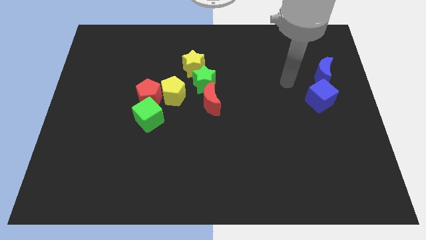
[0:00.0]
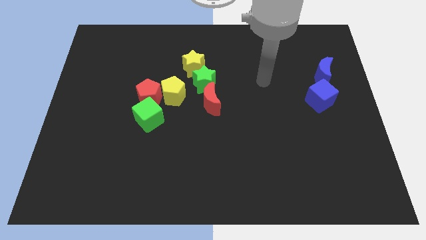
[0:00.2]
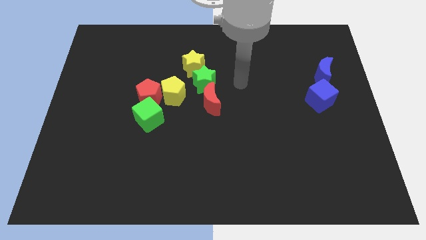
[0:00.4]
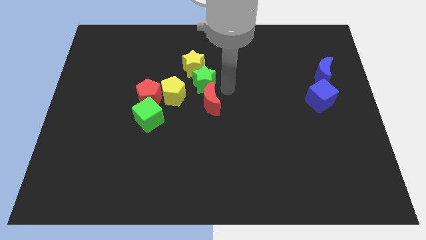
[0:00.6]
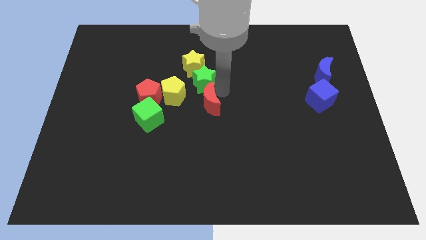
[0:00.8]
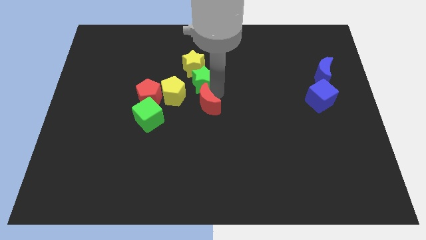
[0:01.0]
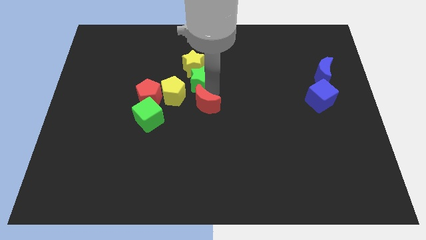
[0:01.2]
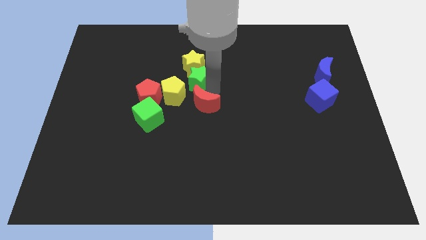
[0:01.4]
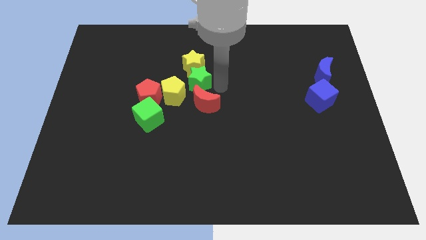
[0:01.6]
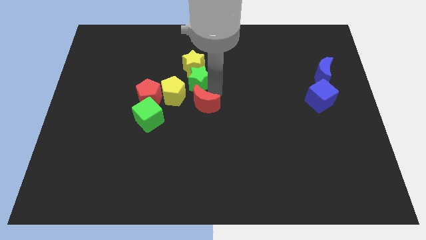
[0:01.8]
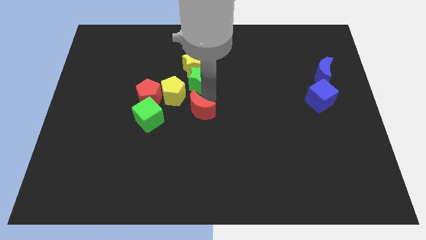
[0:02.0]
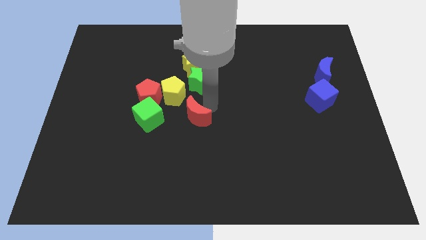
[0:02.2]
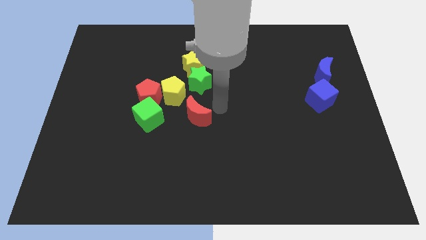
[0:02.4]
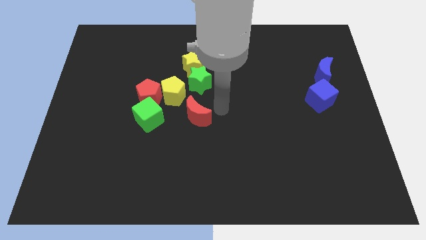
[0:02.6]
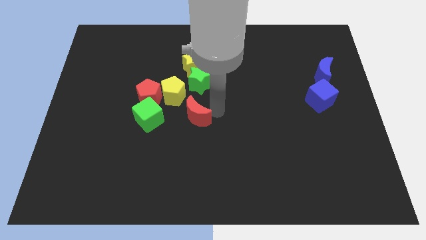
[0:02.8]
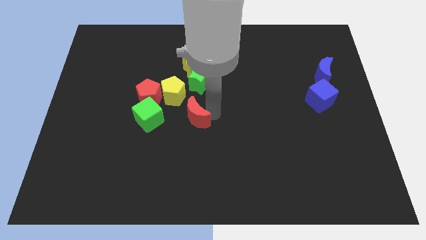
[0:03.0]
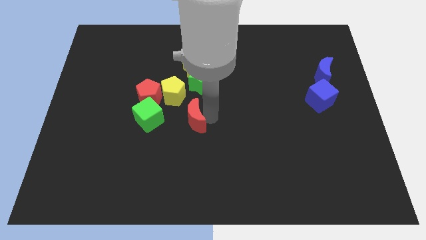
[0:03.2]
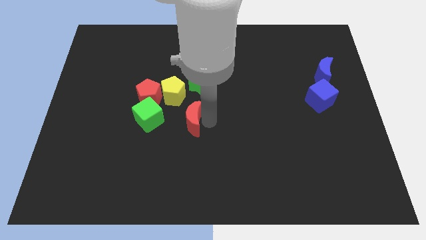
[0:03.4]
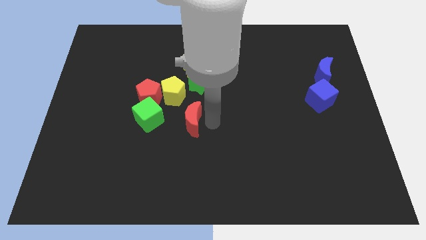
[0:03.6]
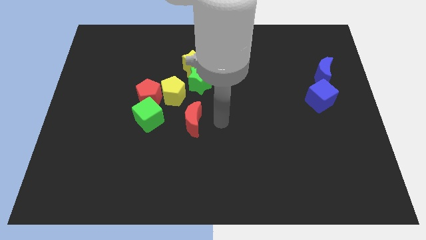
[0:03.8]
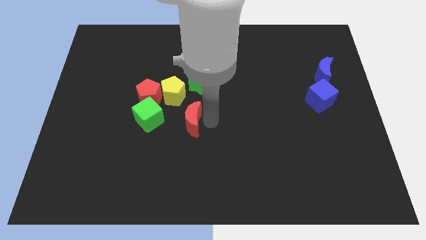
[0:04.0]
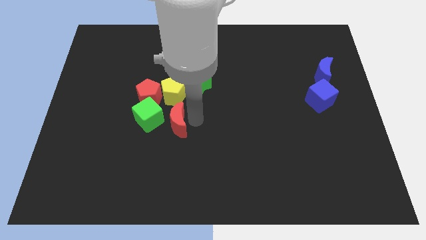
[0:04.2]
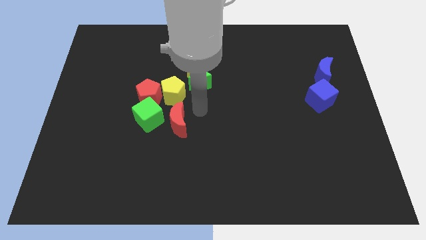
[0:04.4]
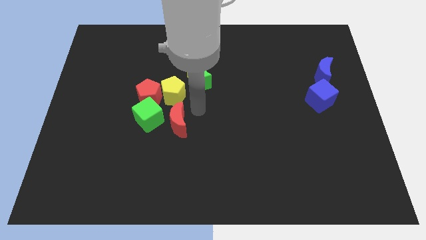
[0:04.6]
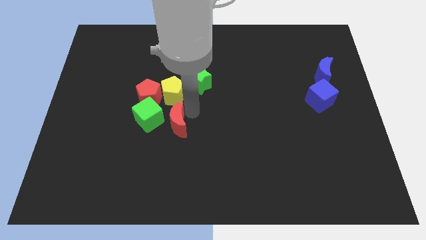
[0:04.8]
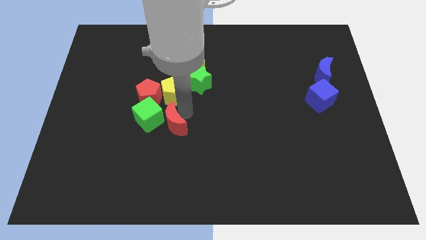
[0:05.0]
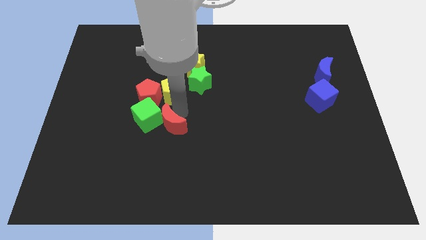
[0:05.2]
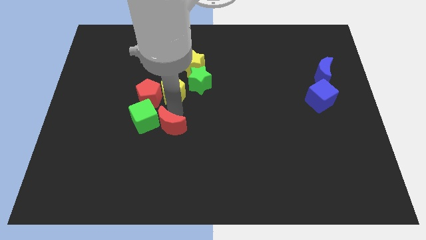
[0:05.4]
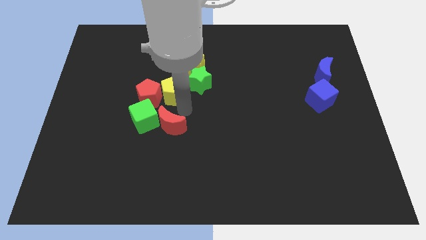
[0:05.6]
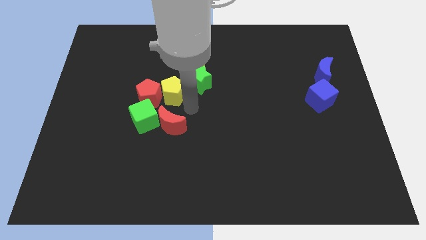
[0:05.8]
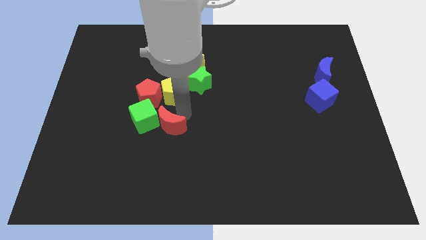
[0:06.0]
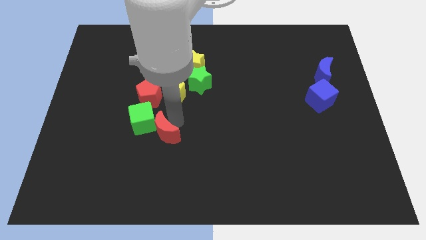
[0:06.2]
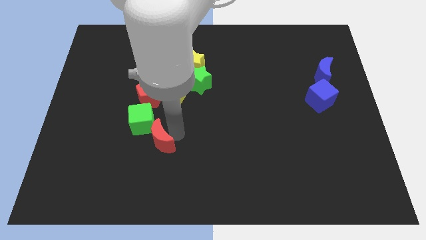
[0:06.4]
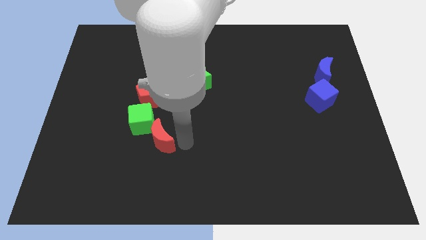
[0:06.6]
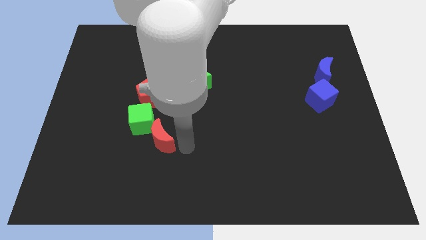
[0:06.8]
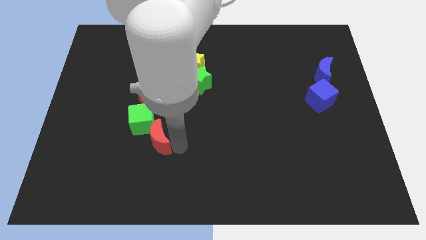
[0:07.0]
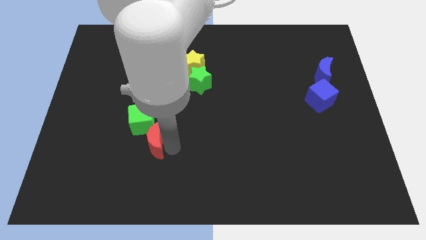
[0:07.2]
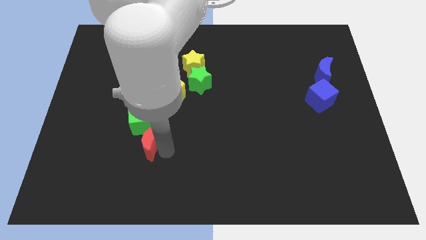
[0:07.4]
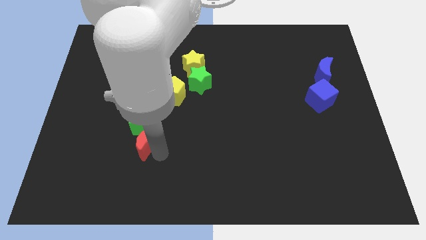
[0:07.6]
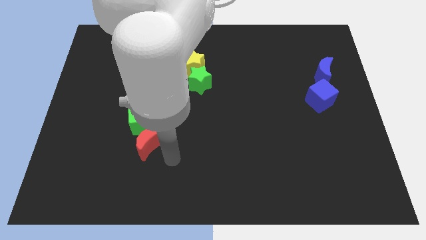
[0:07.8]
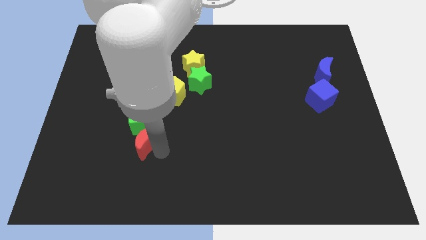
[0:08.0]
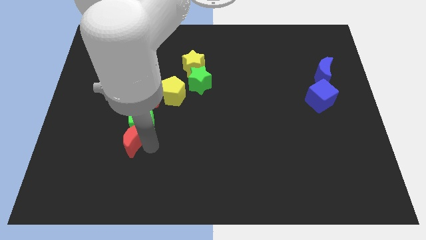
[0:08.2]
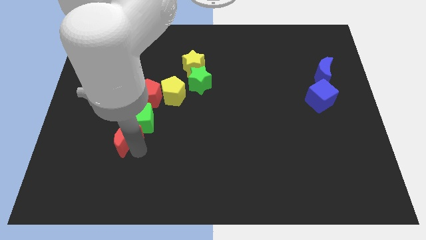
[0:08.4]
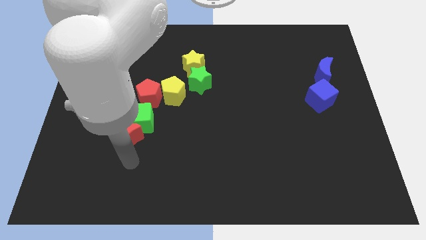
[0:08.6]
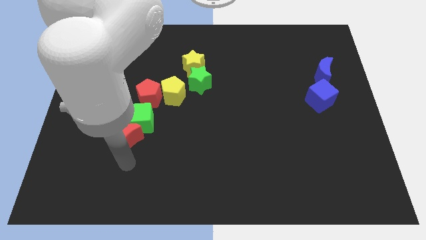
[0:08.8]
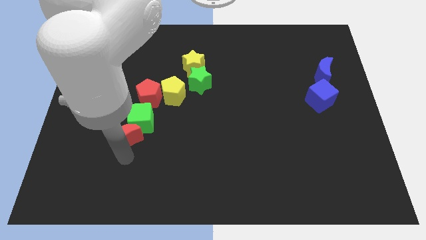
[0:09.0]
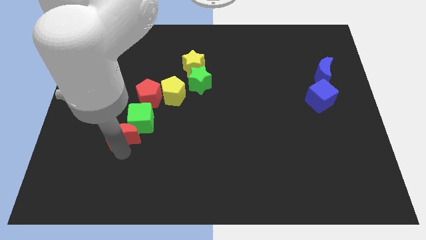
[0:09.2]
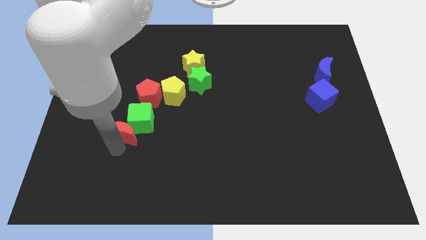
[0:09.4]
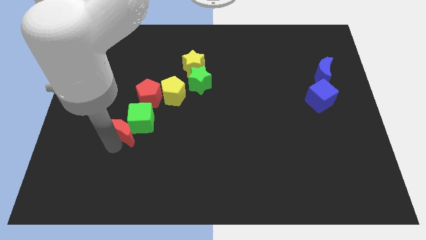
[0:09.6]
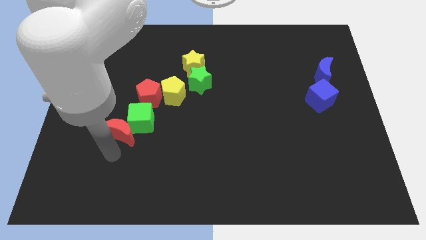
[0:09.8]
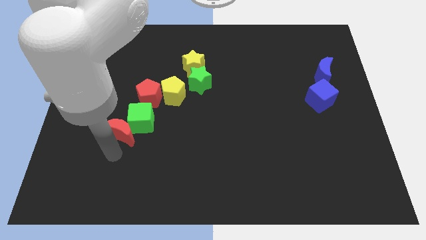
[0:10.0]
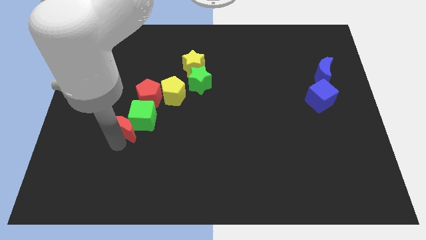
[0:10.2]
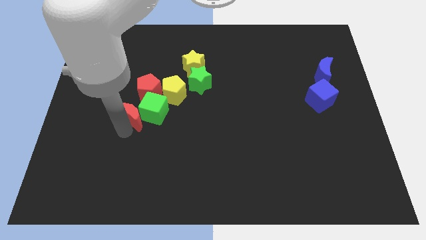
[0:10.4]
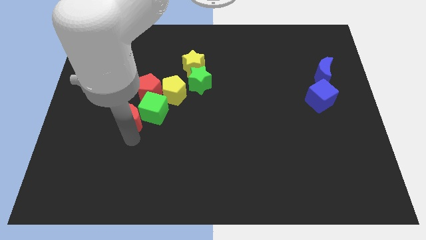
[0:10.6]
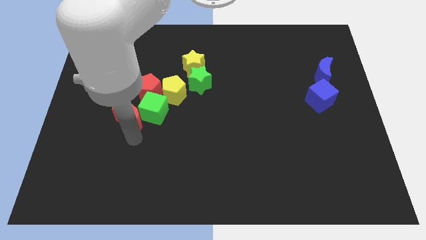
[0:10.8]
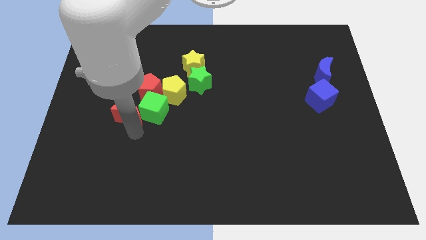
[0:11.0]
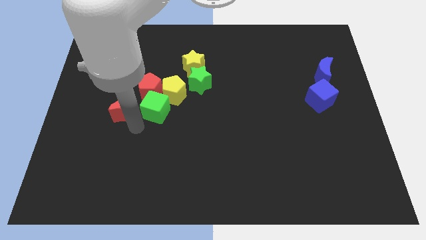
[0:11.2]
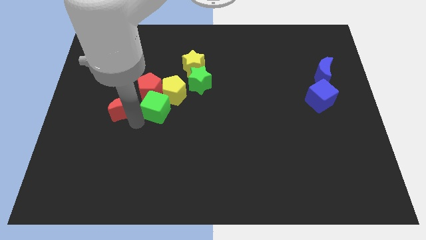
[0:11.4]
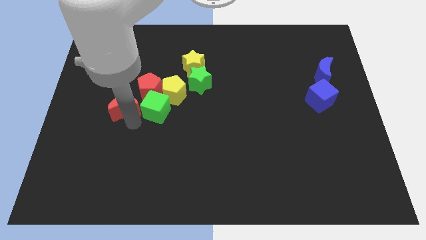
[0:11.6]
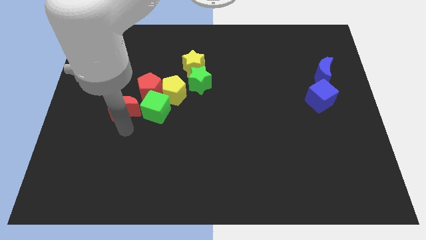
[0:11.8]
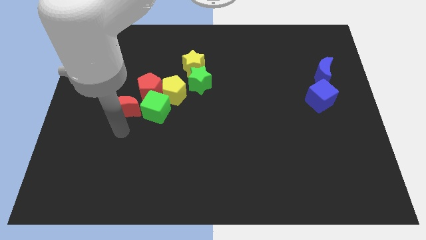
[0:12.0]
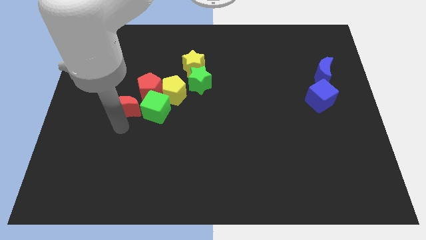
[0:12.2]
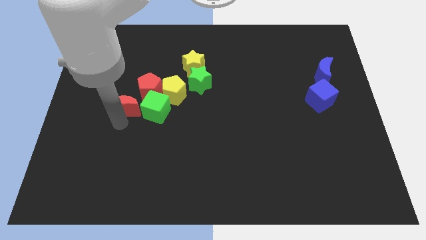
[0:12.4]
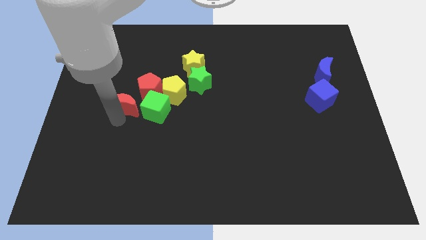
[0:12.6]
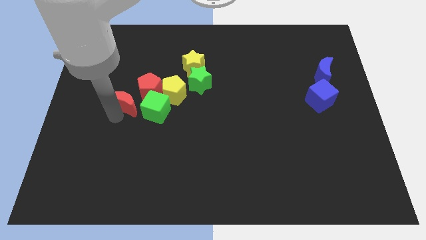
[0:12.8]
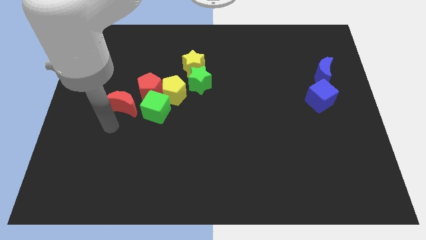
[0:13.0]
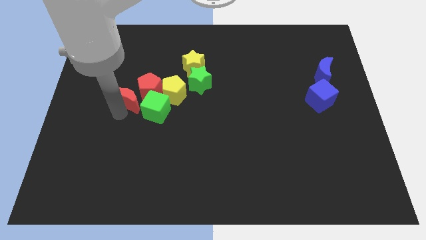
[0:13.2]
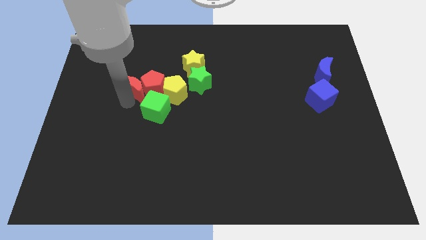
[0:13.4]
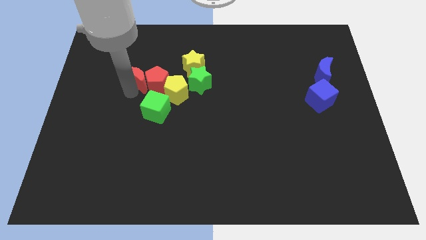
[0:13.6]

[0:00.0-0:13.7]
slide the red moon to the top left of the yellow pentagon

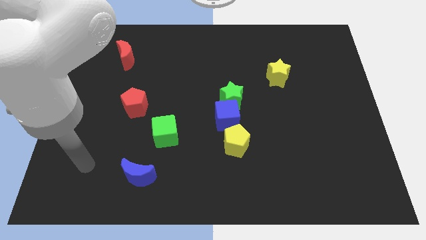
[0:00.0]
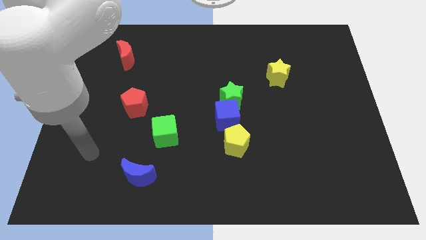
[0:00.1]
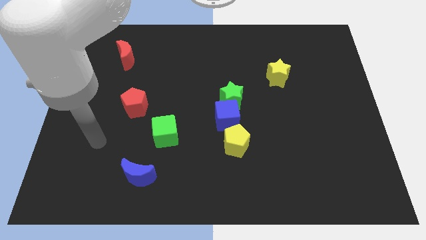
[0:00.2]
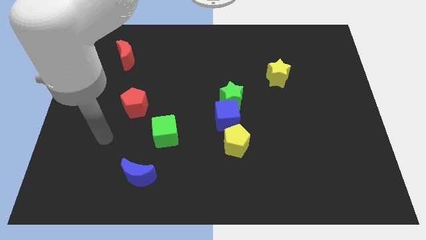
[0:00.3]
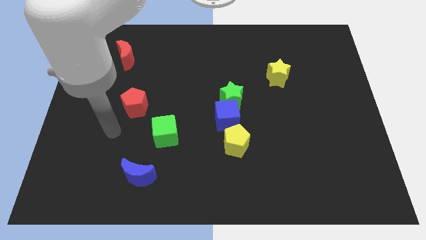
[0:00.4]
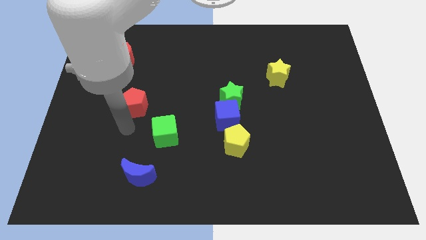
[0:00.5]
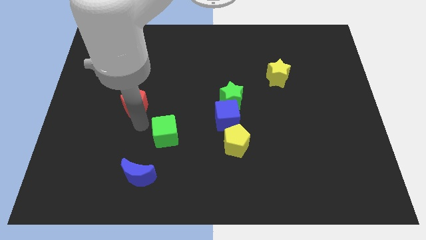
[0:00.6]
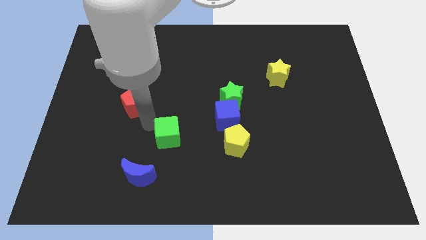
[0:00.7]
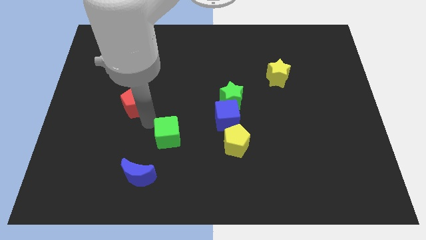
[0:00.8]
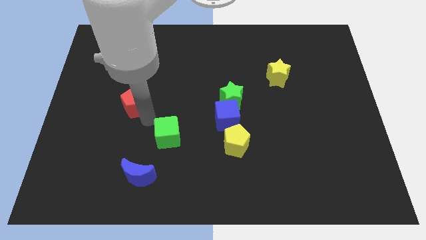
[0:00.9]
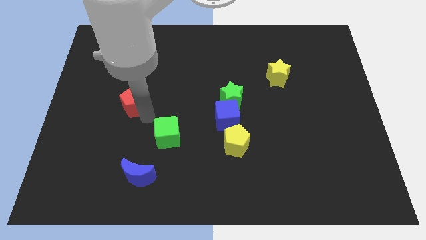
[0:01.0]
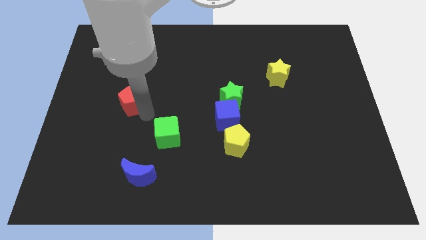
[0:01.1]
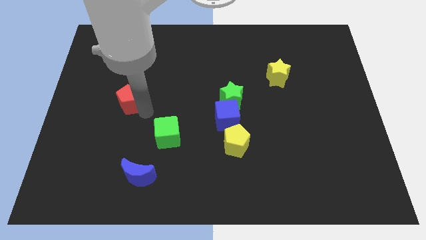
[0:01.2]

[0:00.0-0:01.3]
put the red pentagon to the bottom of the red moon
